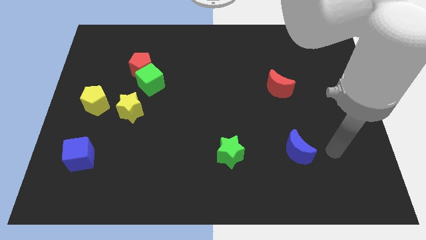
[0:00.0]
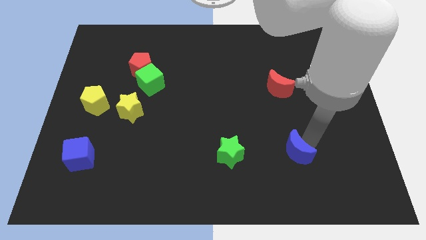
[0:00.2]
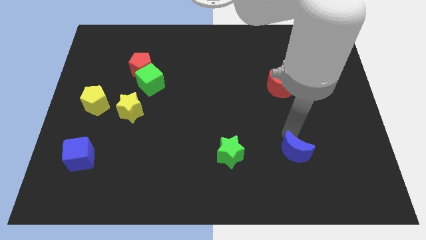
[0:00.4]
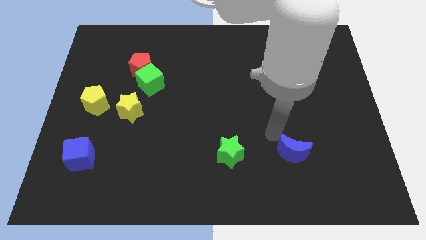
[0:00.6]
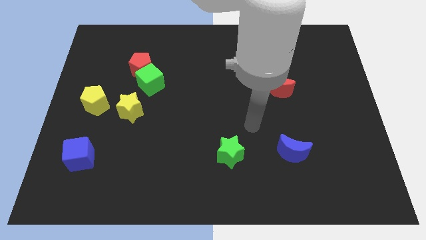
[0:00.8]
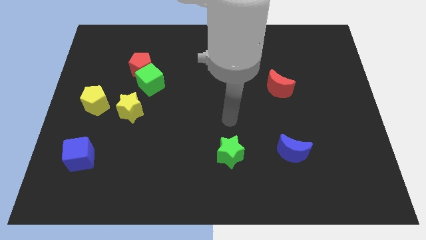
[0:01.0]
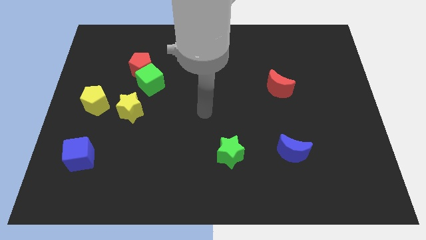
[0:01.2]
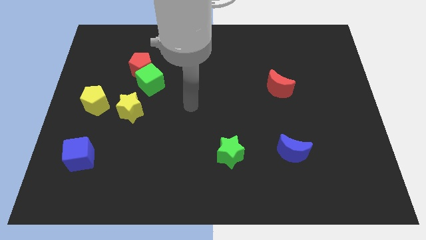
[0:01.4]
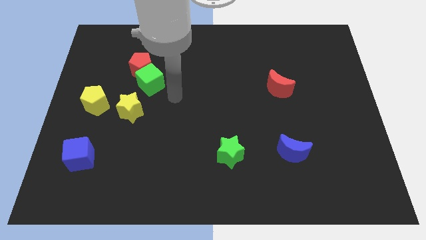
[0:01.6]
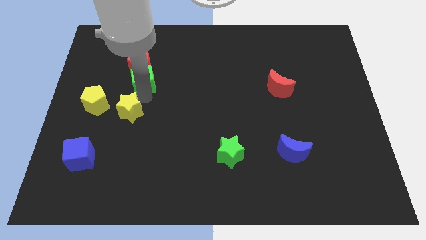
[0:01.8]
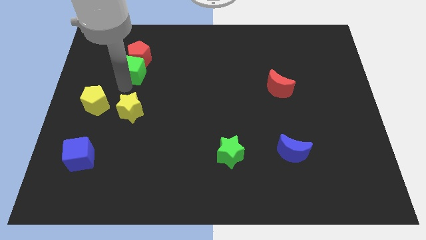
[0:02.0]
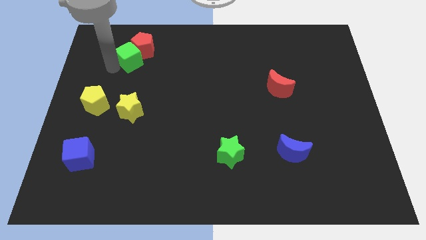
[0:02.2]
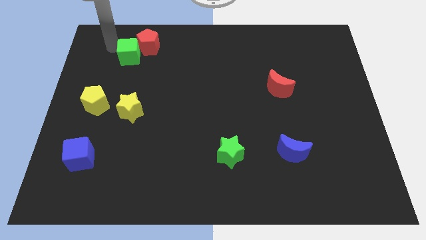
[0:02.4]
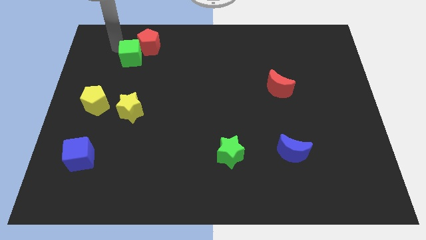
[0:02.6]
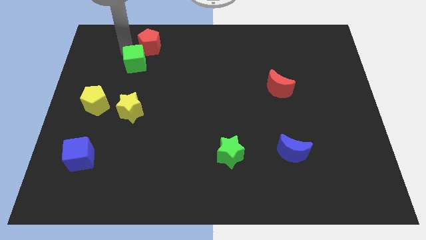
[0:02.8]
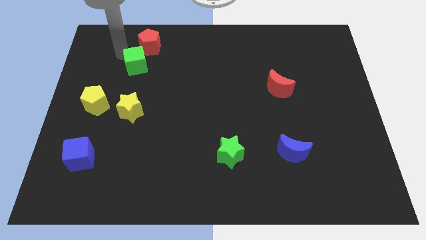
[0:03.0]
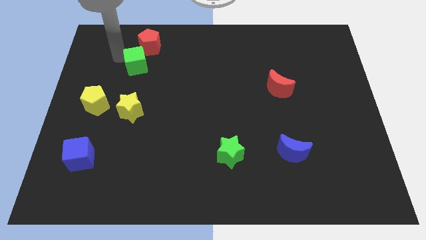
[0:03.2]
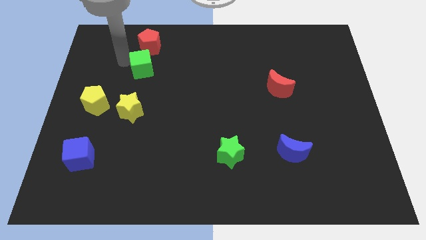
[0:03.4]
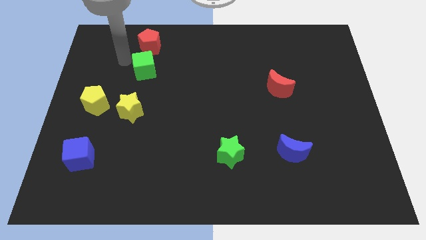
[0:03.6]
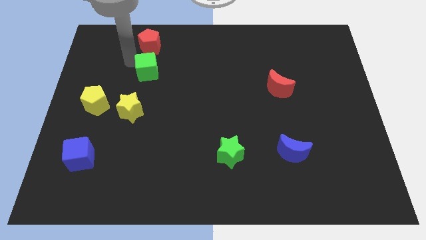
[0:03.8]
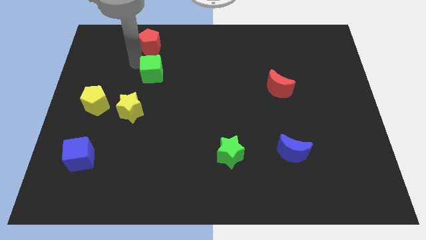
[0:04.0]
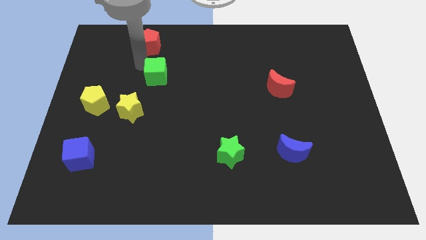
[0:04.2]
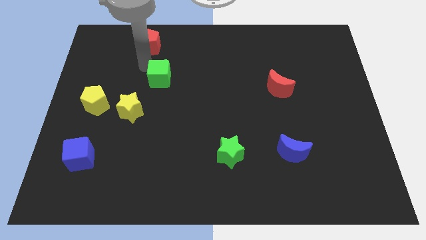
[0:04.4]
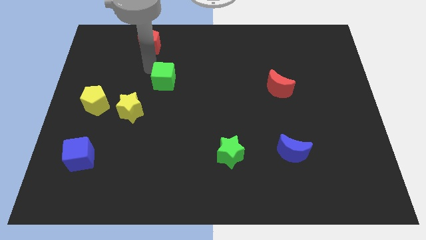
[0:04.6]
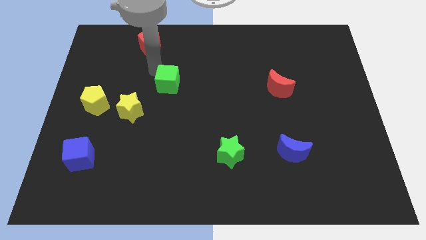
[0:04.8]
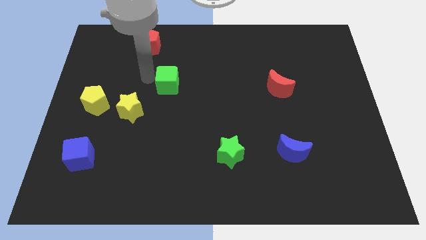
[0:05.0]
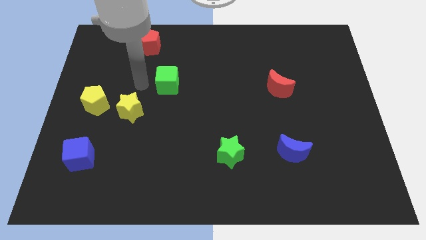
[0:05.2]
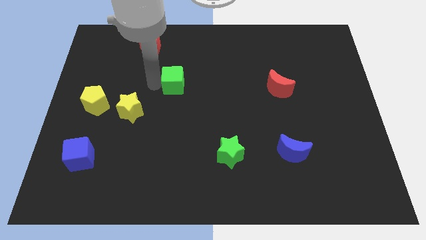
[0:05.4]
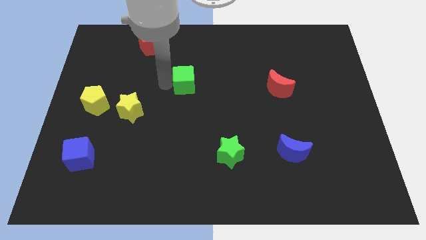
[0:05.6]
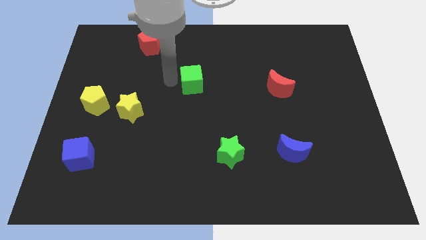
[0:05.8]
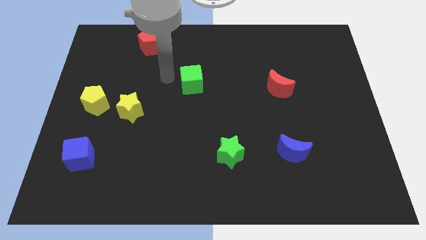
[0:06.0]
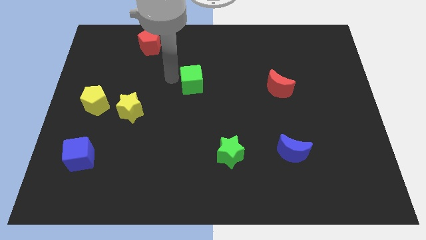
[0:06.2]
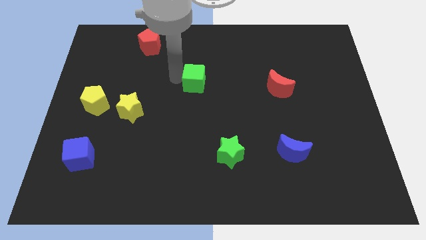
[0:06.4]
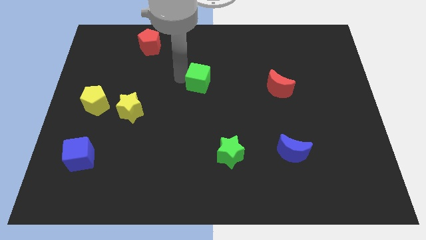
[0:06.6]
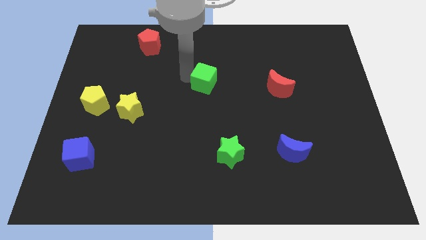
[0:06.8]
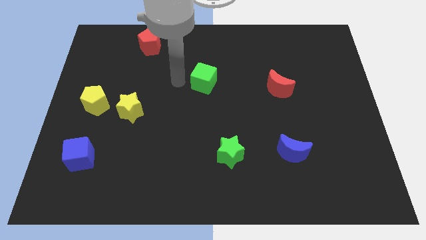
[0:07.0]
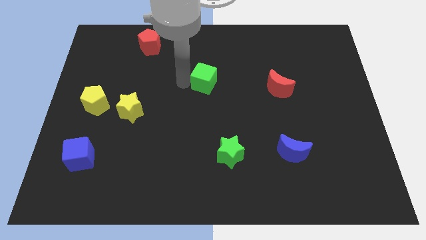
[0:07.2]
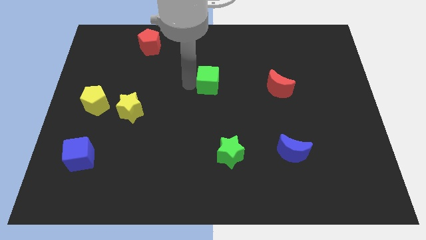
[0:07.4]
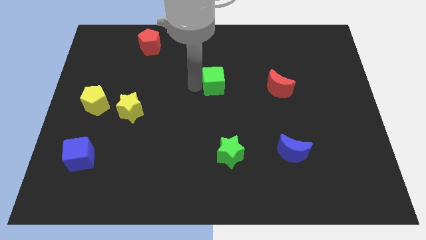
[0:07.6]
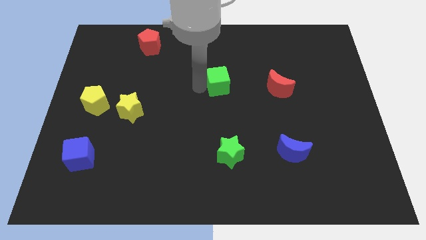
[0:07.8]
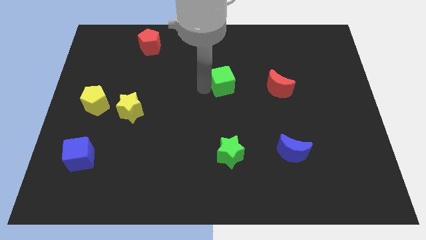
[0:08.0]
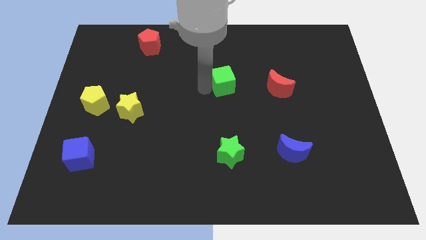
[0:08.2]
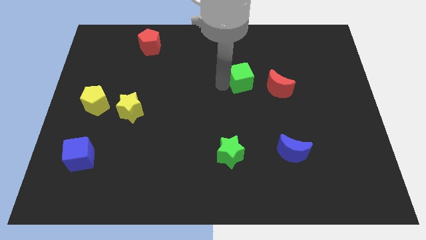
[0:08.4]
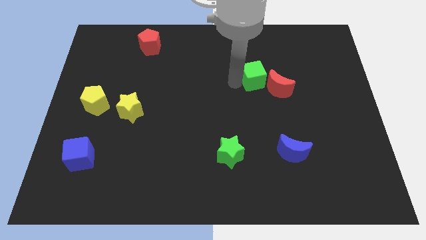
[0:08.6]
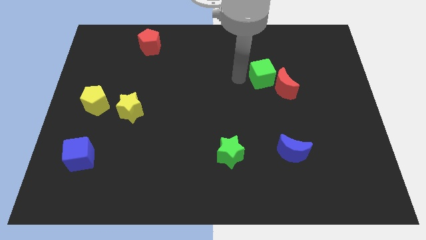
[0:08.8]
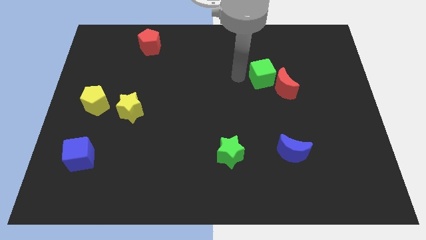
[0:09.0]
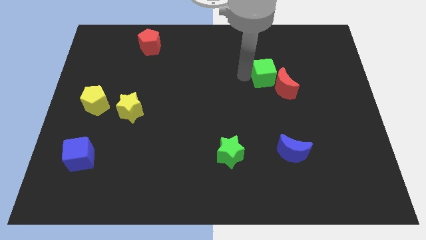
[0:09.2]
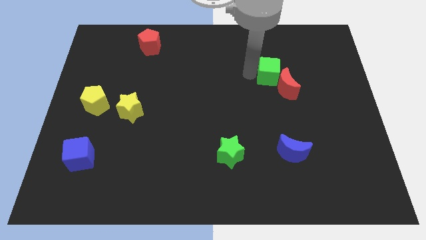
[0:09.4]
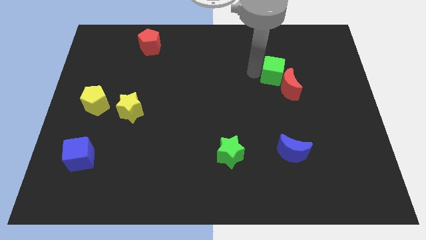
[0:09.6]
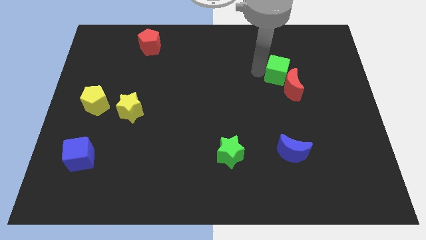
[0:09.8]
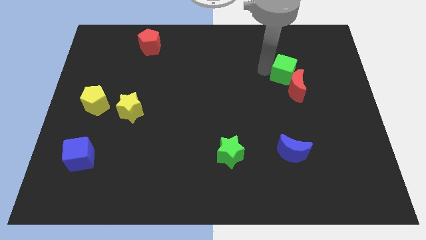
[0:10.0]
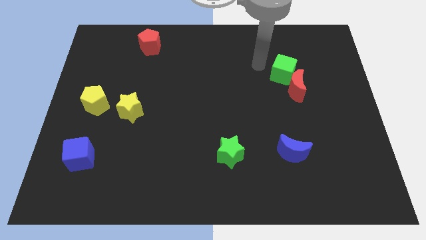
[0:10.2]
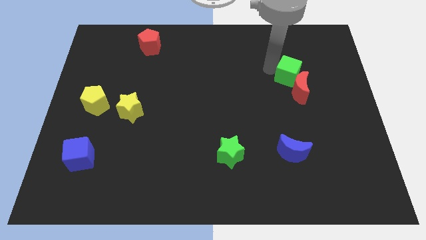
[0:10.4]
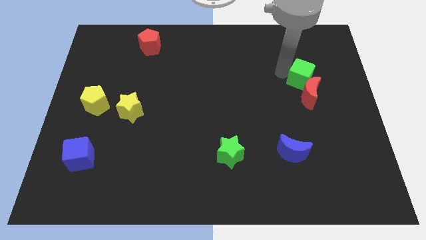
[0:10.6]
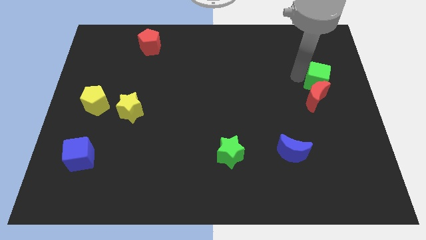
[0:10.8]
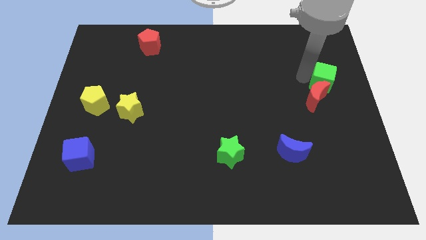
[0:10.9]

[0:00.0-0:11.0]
put the green cube to the right side

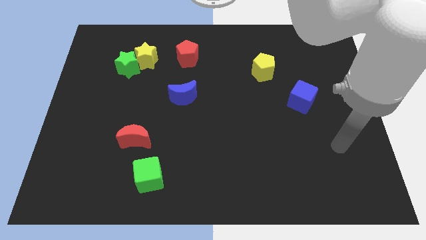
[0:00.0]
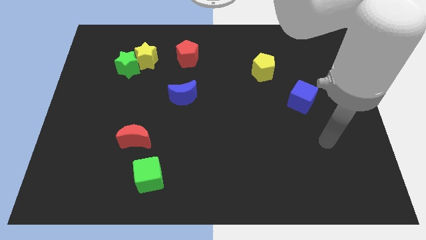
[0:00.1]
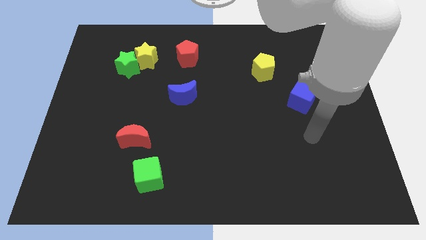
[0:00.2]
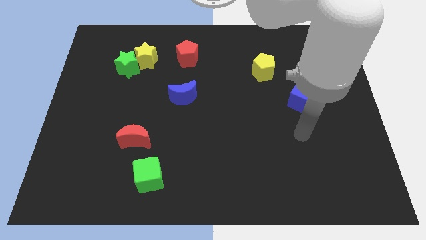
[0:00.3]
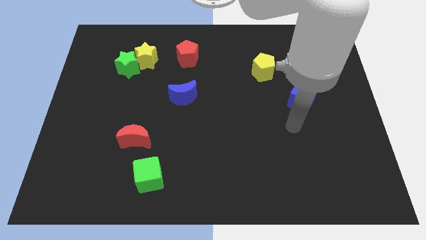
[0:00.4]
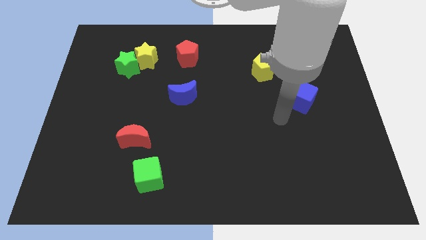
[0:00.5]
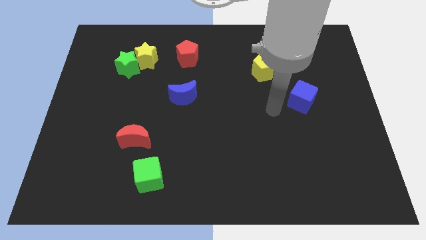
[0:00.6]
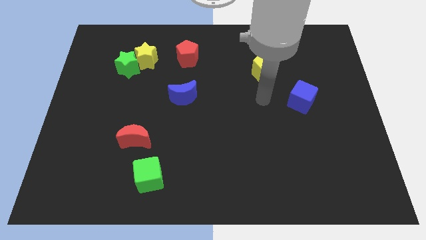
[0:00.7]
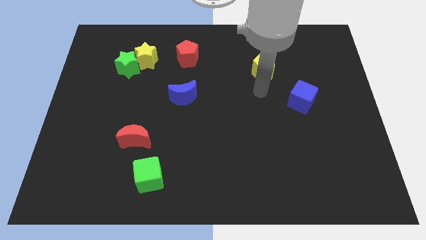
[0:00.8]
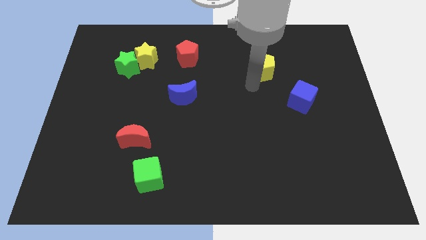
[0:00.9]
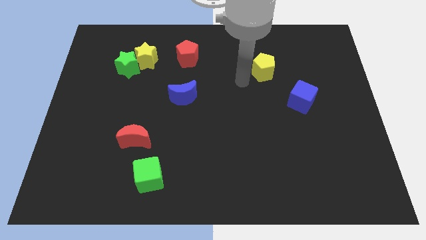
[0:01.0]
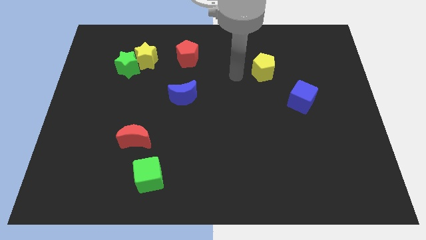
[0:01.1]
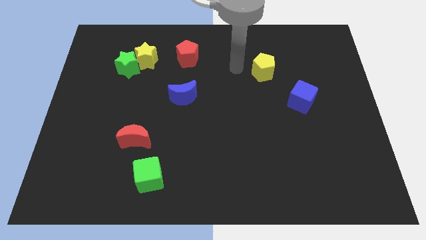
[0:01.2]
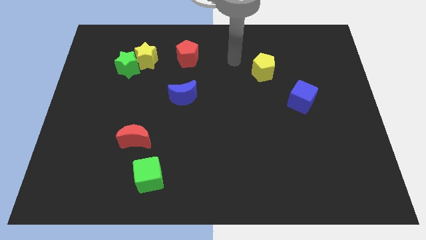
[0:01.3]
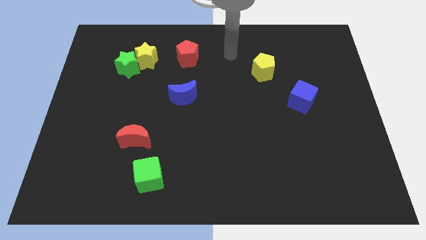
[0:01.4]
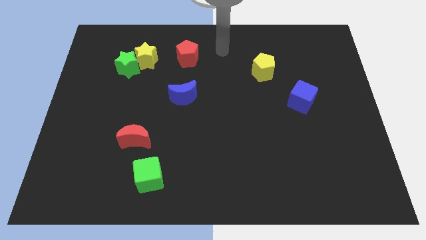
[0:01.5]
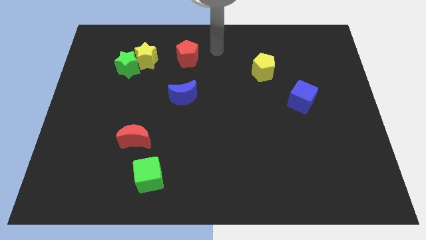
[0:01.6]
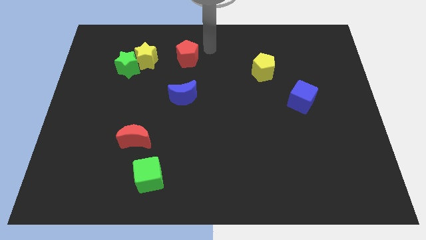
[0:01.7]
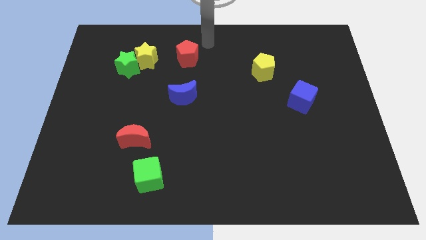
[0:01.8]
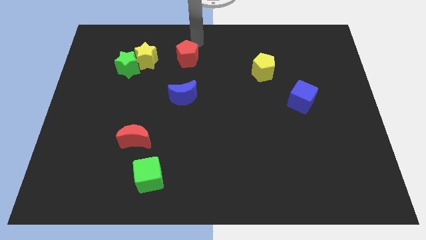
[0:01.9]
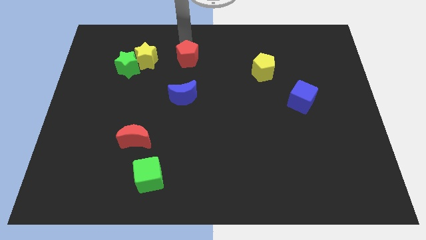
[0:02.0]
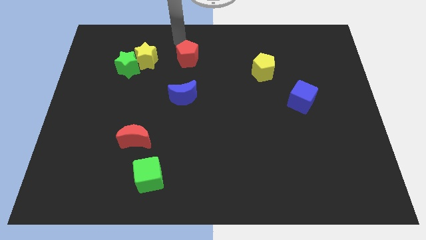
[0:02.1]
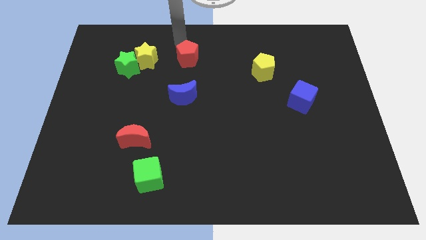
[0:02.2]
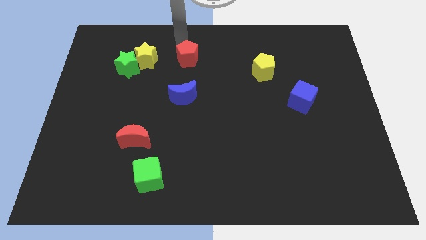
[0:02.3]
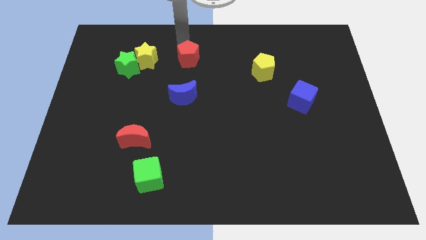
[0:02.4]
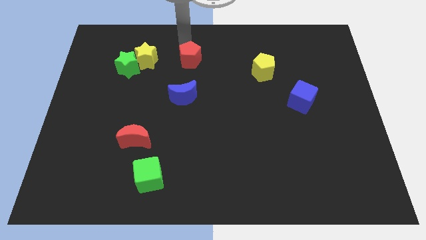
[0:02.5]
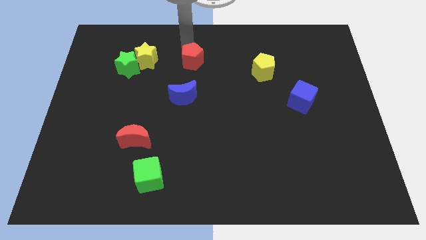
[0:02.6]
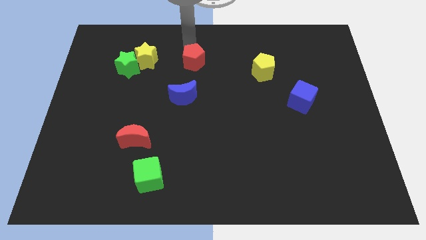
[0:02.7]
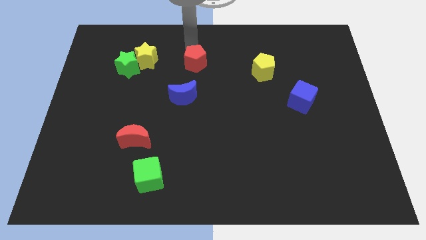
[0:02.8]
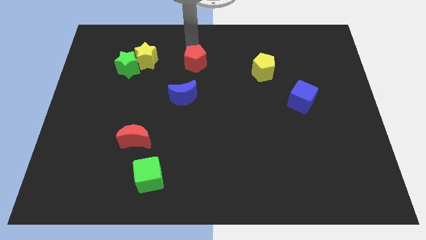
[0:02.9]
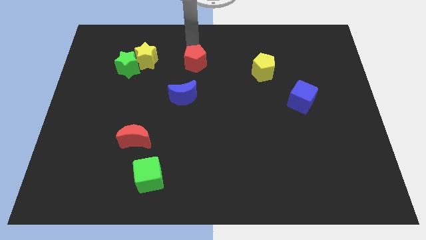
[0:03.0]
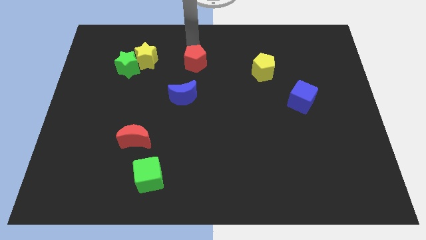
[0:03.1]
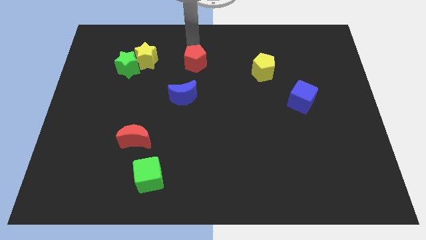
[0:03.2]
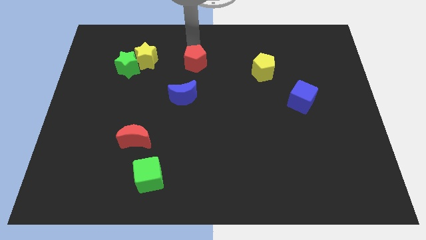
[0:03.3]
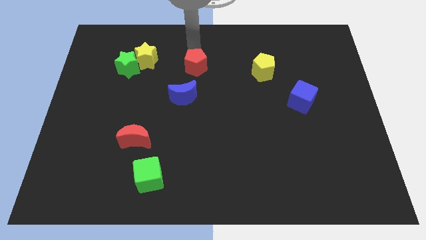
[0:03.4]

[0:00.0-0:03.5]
push the red pentagon to the middle
